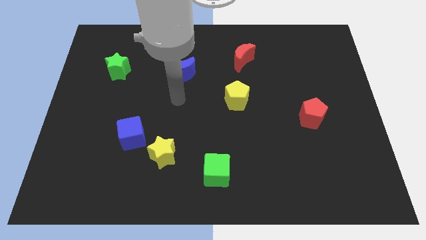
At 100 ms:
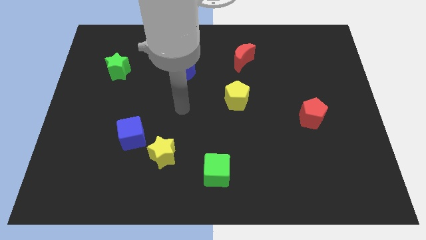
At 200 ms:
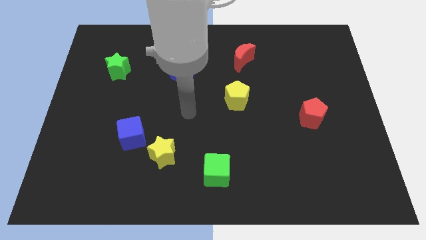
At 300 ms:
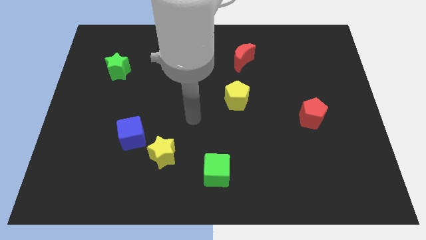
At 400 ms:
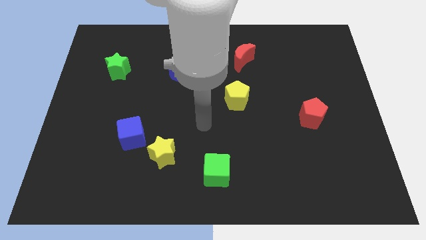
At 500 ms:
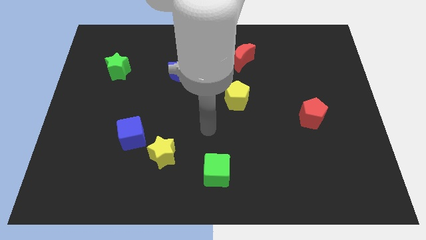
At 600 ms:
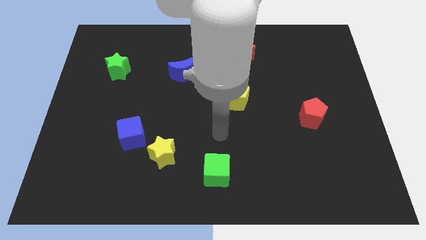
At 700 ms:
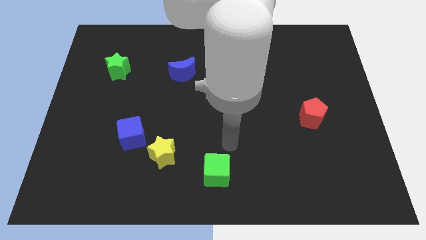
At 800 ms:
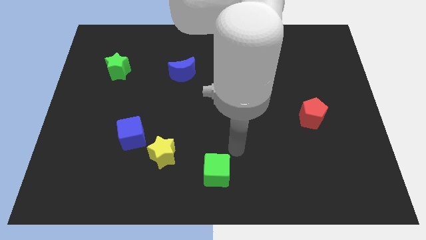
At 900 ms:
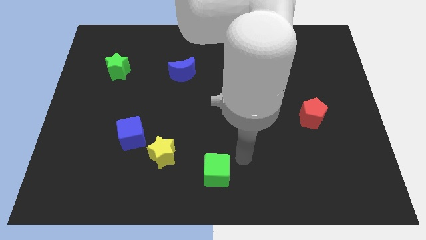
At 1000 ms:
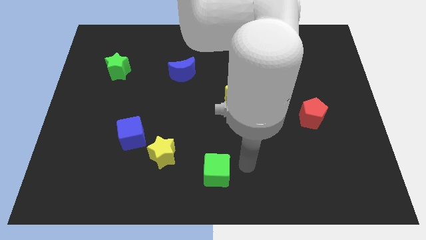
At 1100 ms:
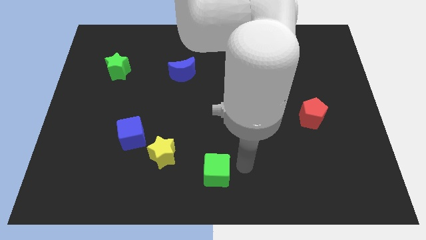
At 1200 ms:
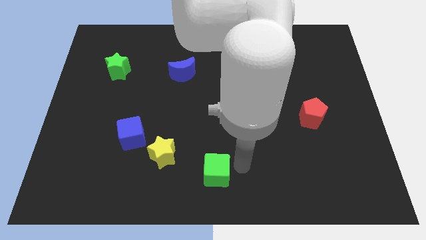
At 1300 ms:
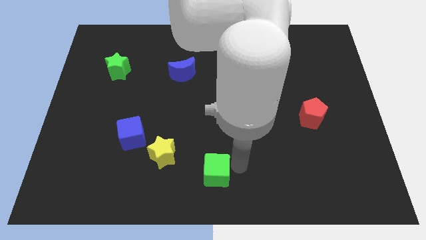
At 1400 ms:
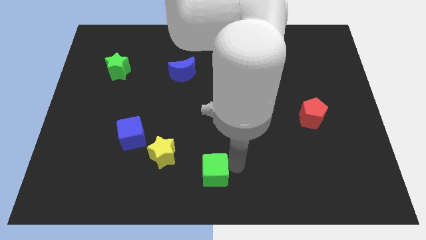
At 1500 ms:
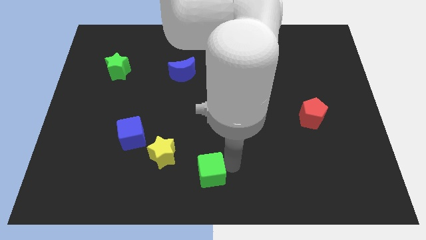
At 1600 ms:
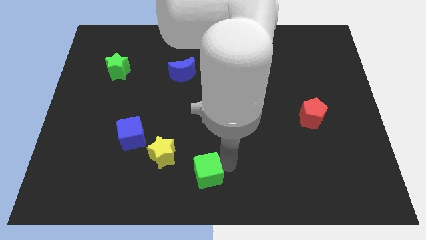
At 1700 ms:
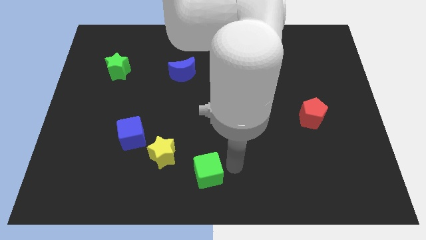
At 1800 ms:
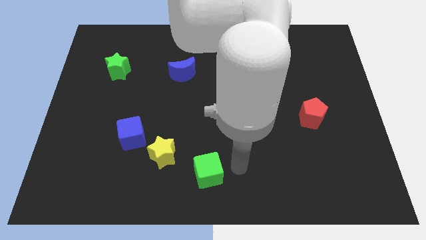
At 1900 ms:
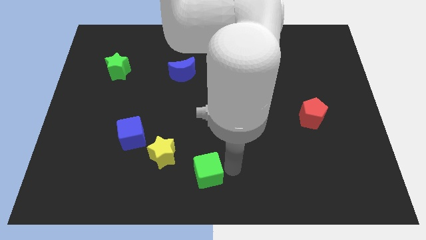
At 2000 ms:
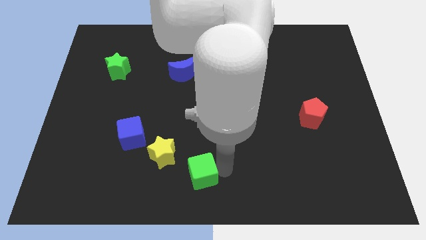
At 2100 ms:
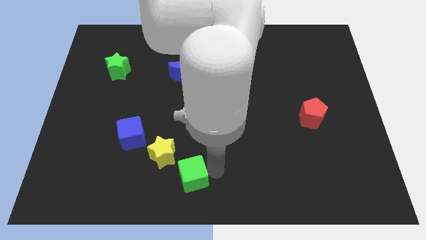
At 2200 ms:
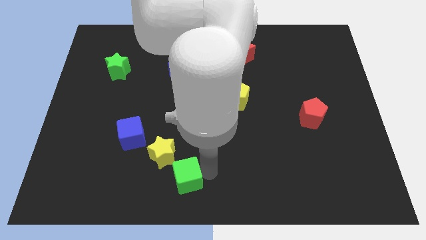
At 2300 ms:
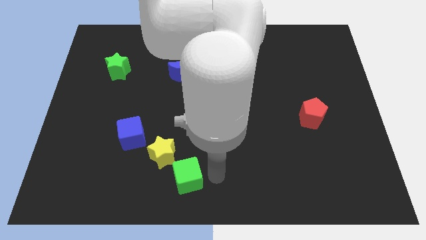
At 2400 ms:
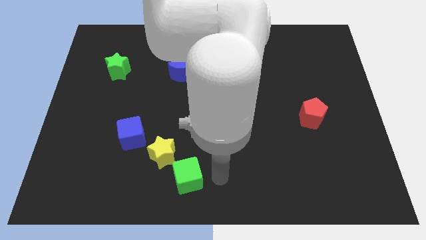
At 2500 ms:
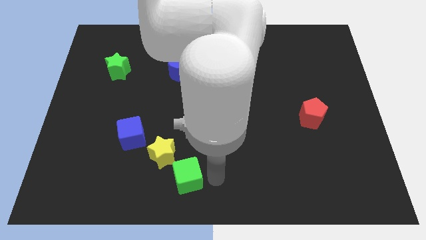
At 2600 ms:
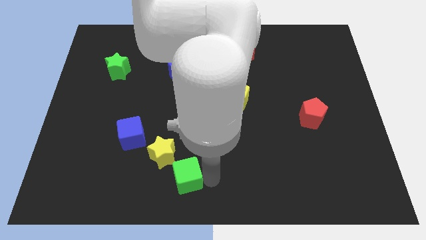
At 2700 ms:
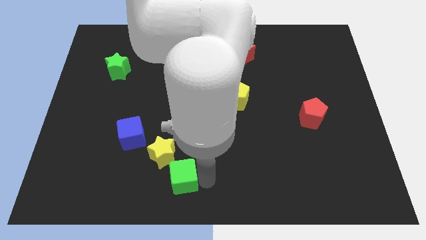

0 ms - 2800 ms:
push the green cube a little bit to the left

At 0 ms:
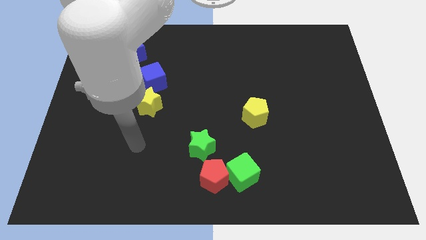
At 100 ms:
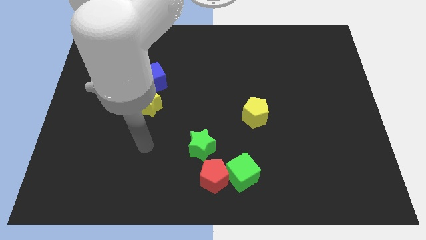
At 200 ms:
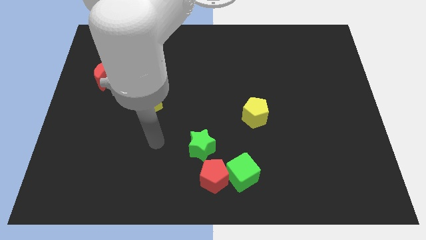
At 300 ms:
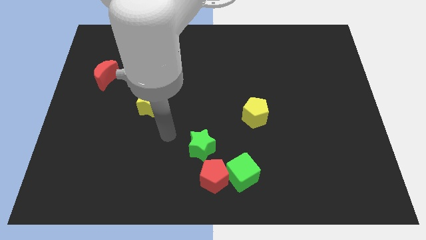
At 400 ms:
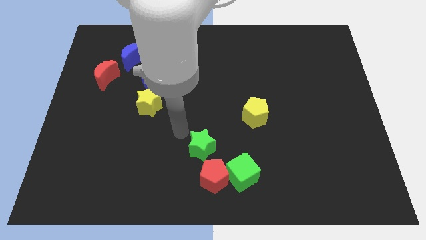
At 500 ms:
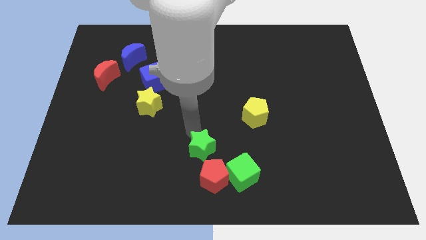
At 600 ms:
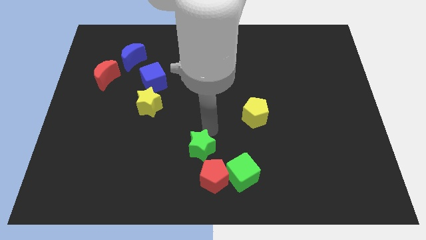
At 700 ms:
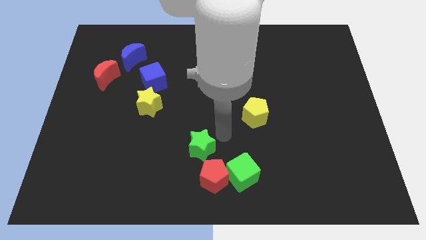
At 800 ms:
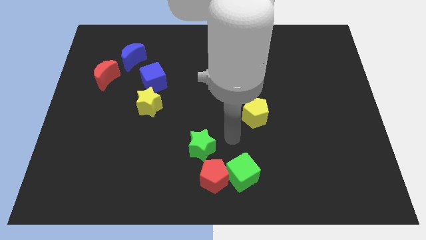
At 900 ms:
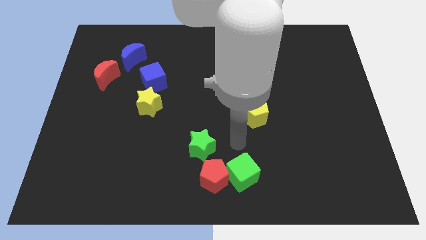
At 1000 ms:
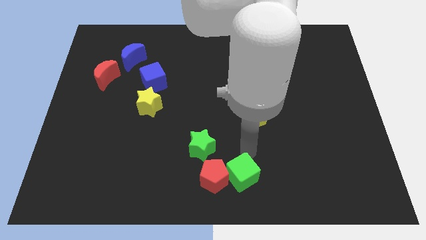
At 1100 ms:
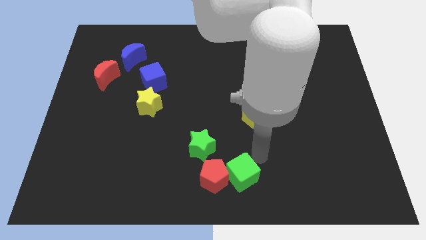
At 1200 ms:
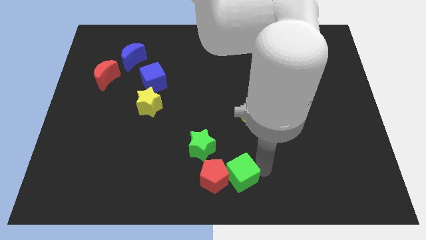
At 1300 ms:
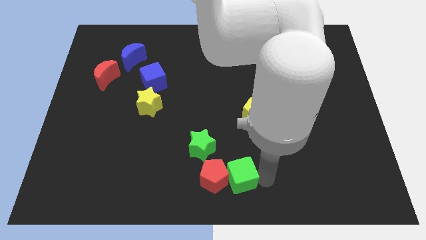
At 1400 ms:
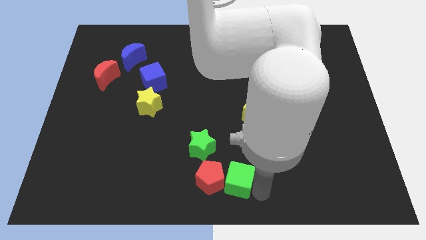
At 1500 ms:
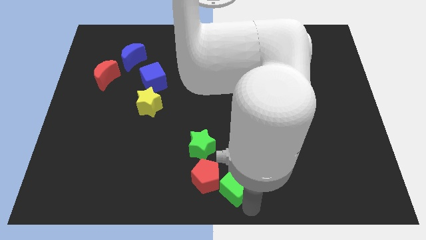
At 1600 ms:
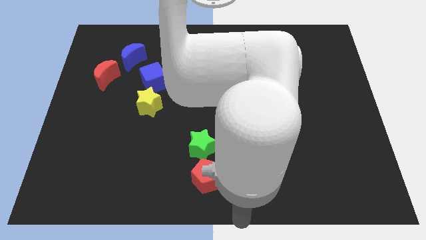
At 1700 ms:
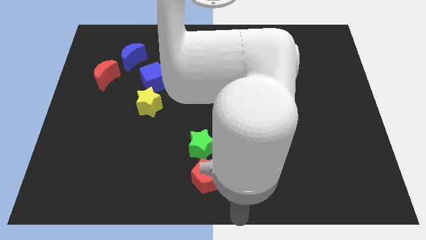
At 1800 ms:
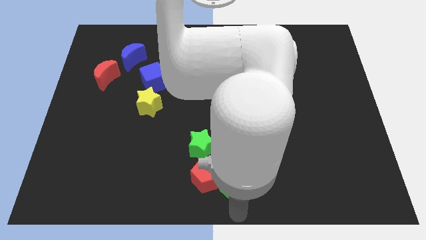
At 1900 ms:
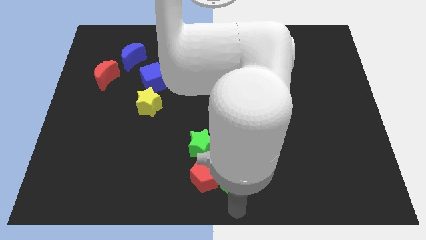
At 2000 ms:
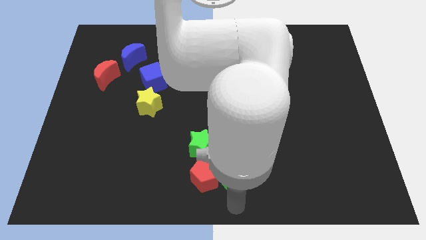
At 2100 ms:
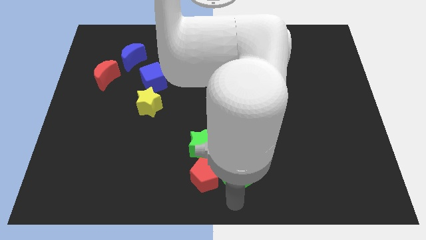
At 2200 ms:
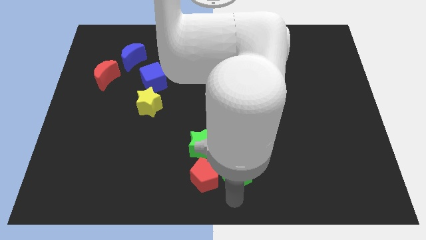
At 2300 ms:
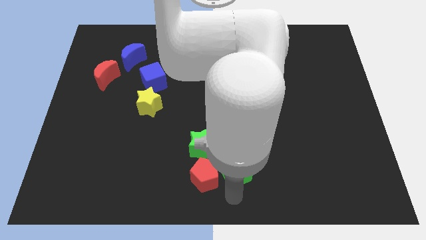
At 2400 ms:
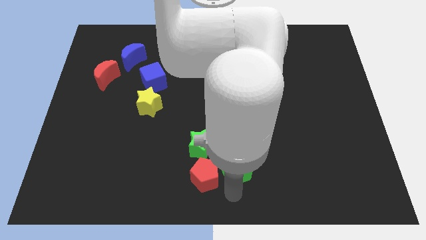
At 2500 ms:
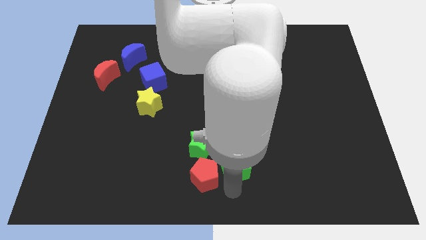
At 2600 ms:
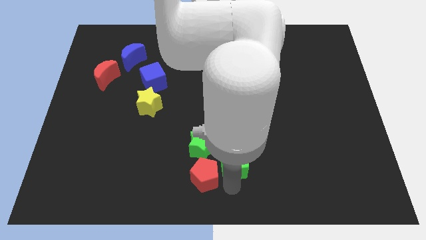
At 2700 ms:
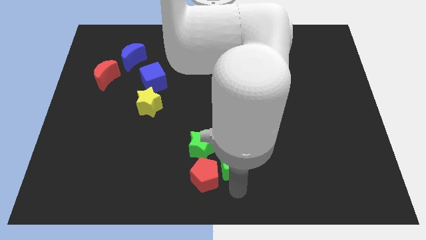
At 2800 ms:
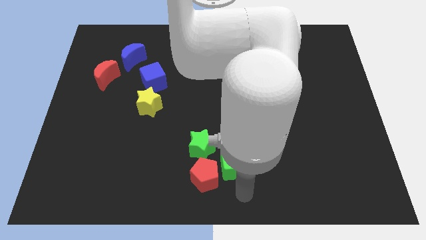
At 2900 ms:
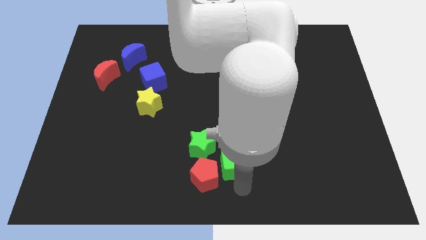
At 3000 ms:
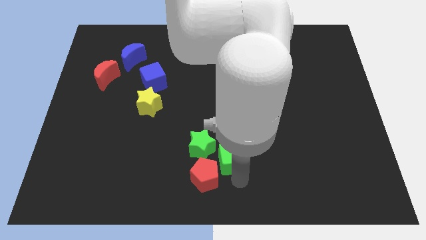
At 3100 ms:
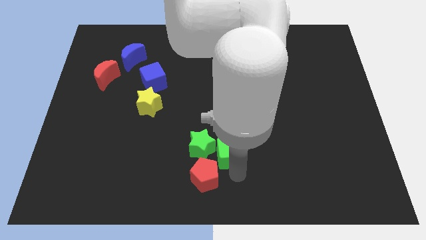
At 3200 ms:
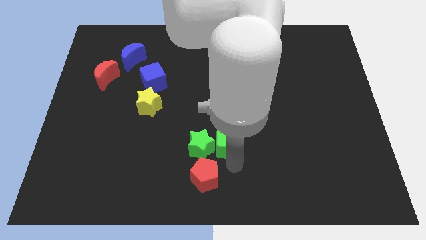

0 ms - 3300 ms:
move the green cube upwards and left diagonally somewhat

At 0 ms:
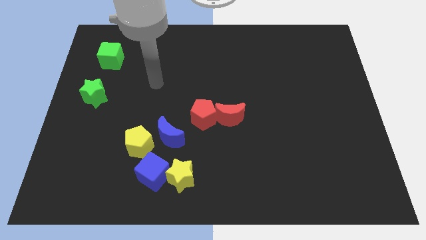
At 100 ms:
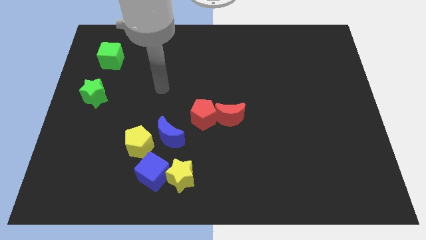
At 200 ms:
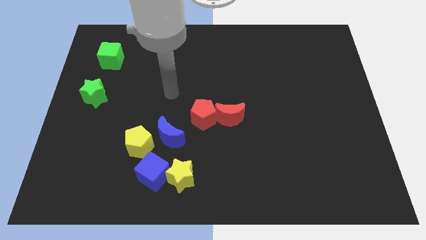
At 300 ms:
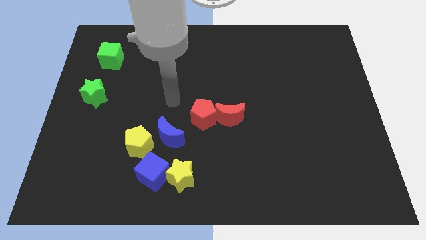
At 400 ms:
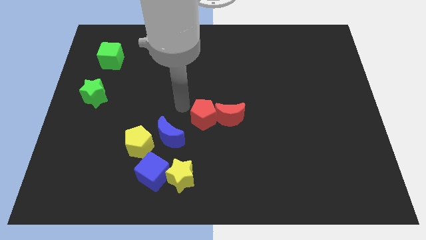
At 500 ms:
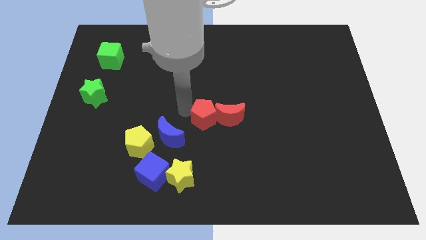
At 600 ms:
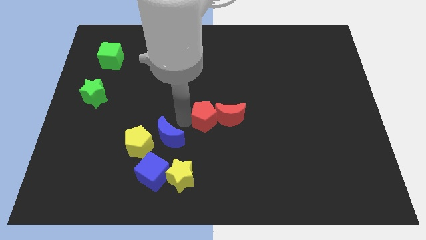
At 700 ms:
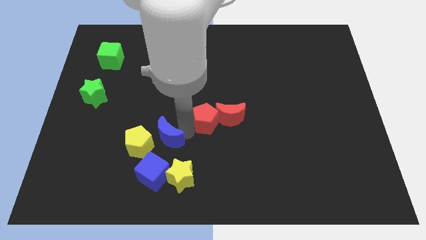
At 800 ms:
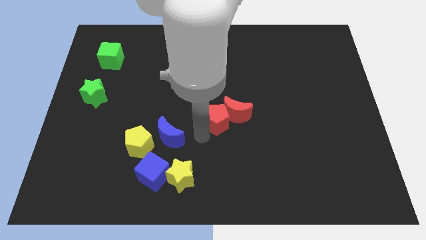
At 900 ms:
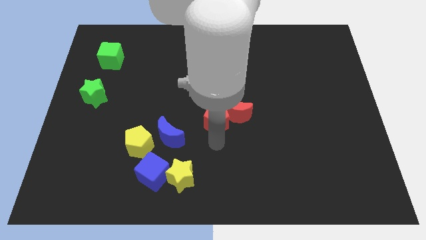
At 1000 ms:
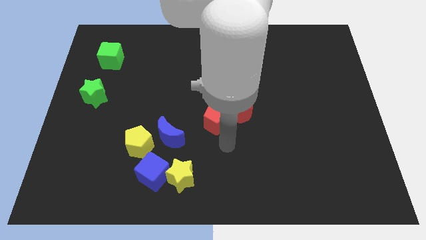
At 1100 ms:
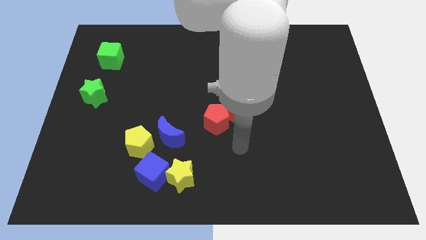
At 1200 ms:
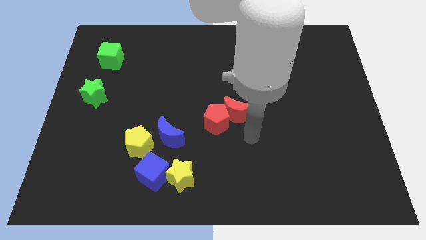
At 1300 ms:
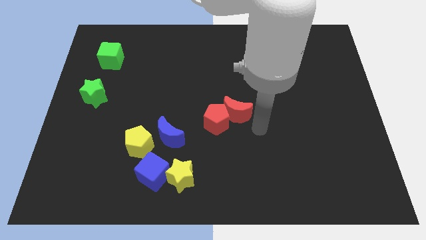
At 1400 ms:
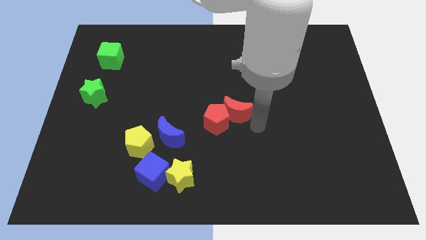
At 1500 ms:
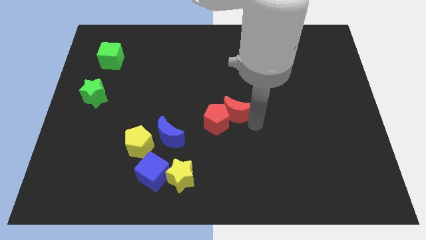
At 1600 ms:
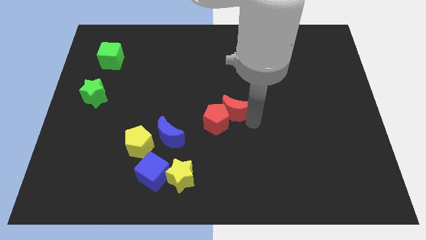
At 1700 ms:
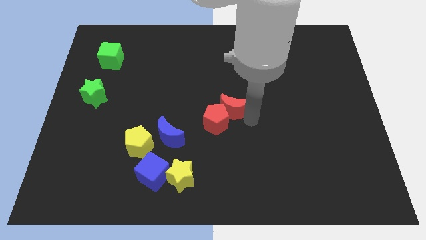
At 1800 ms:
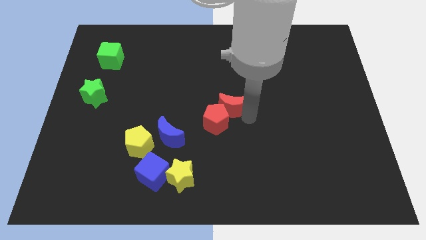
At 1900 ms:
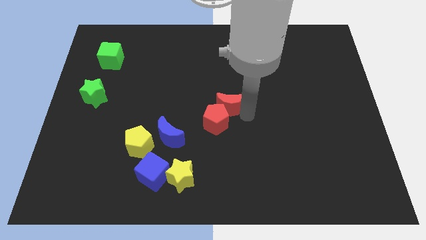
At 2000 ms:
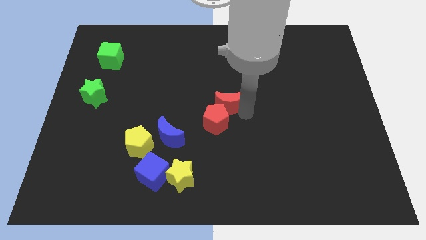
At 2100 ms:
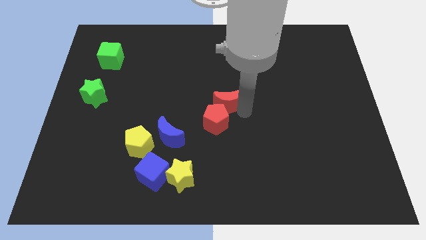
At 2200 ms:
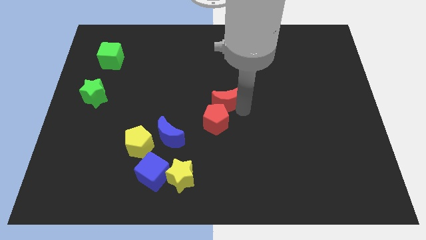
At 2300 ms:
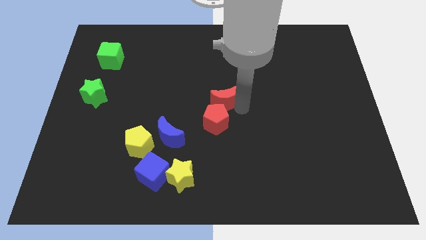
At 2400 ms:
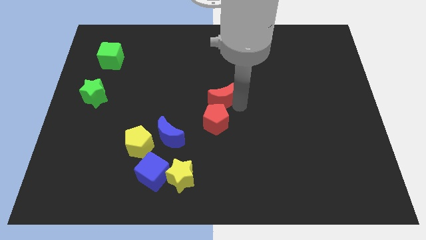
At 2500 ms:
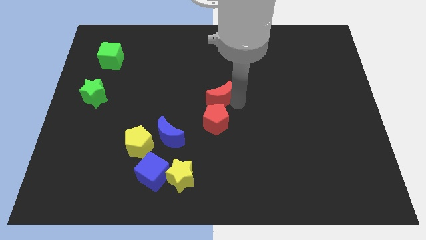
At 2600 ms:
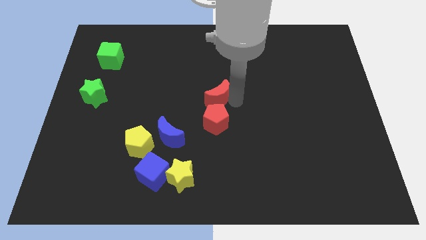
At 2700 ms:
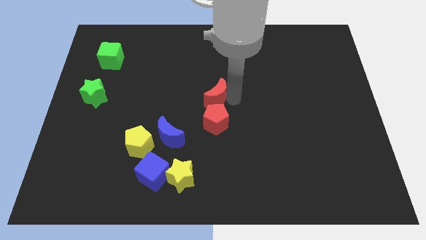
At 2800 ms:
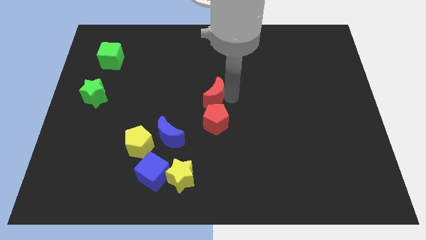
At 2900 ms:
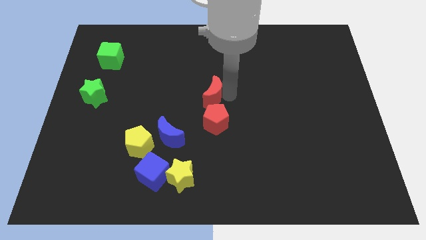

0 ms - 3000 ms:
push the red moon upwards and to the left a bit
